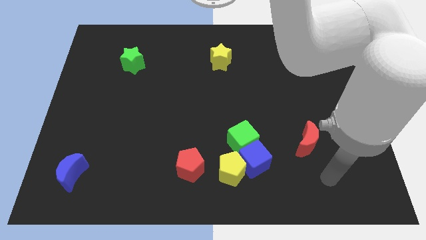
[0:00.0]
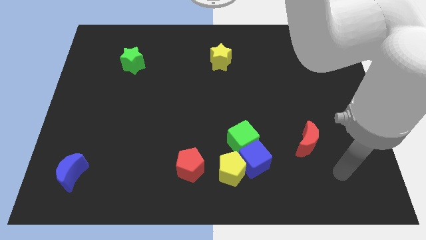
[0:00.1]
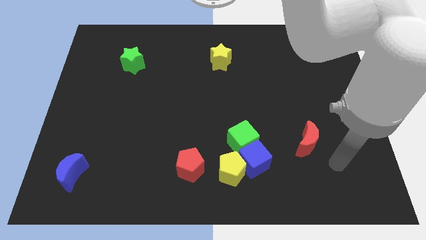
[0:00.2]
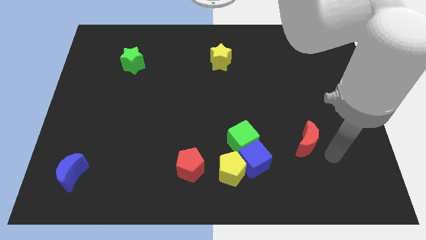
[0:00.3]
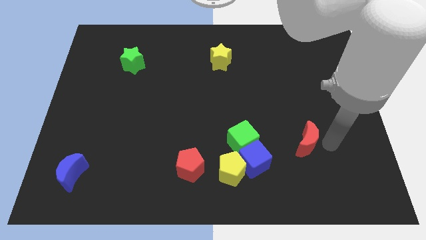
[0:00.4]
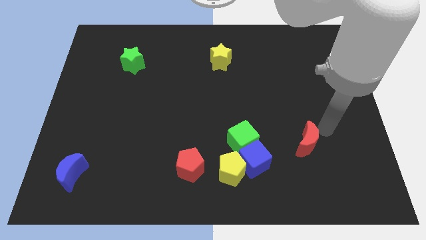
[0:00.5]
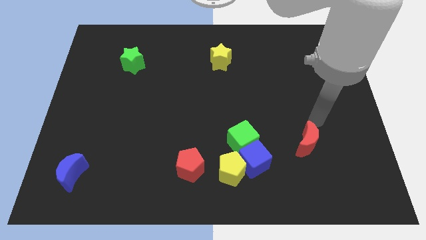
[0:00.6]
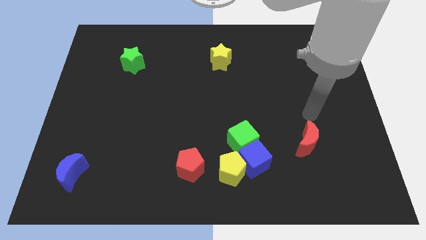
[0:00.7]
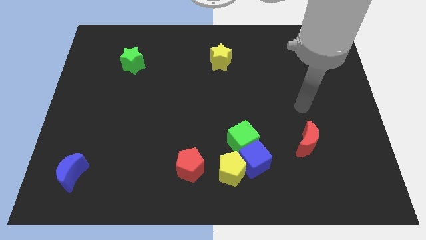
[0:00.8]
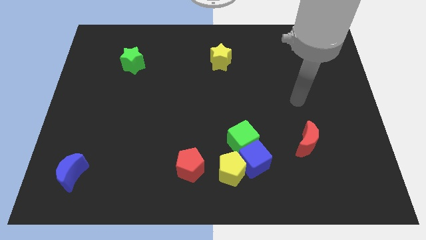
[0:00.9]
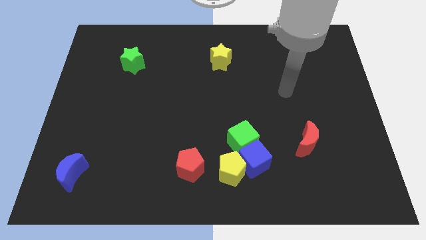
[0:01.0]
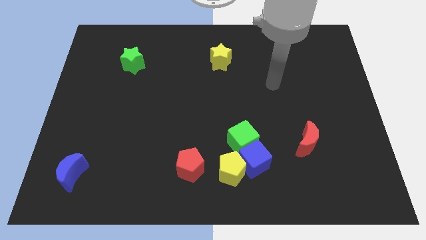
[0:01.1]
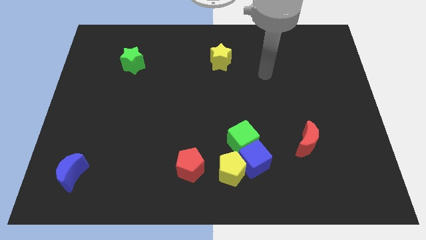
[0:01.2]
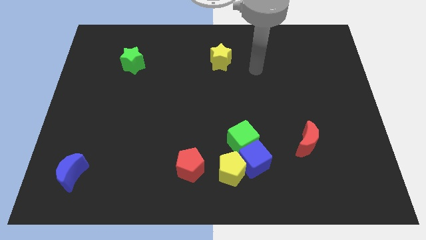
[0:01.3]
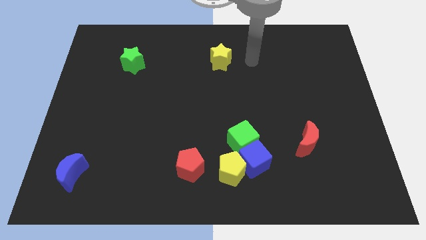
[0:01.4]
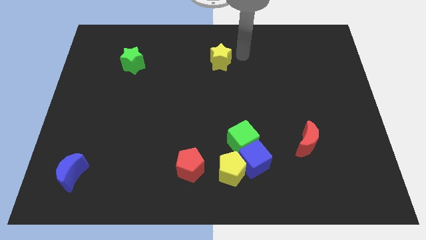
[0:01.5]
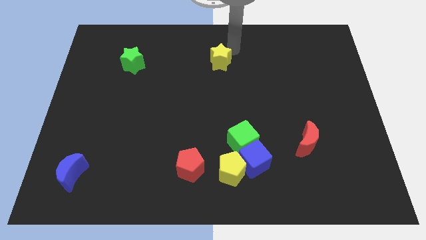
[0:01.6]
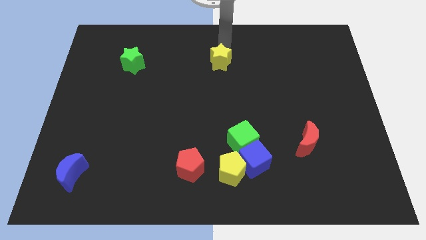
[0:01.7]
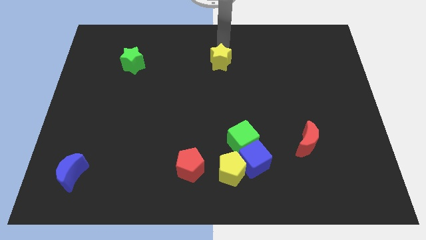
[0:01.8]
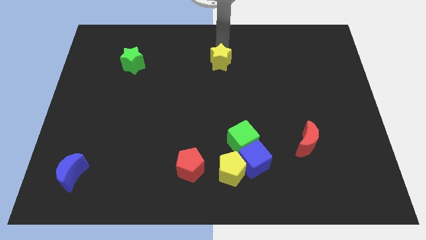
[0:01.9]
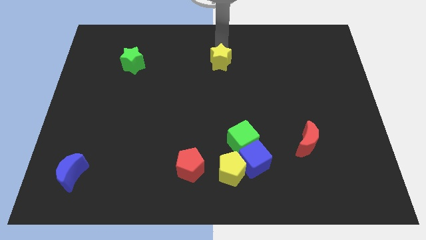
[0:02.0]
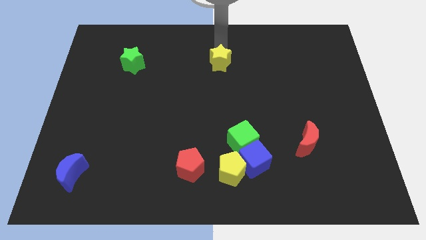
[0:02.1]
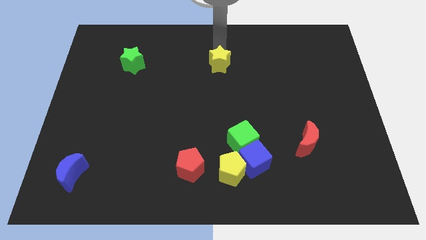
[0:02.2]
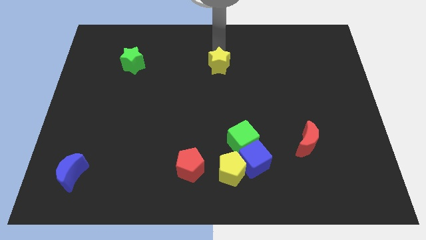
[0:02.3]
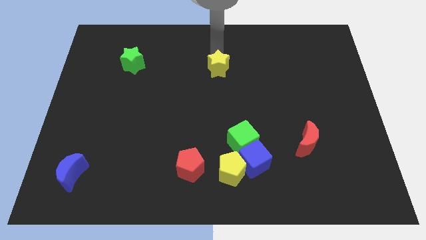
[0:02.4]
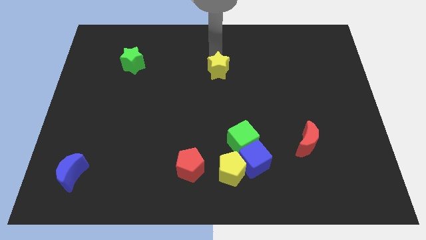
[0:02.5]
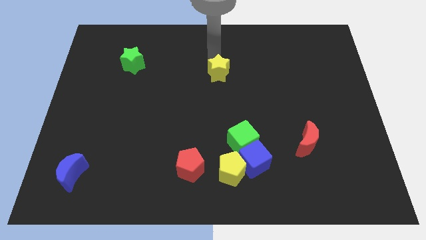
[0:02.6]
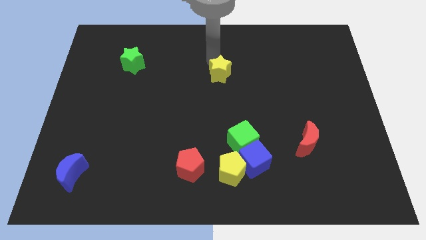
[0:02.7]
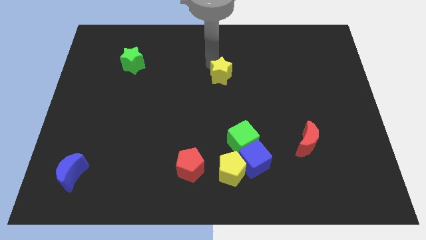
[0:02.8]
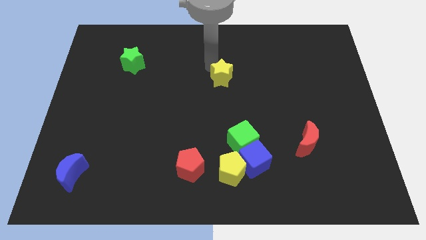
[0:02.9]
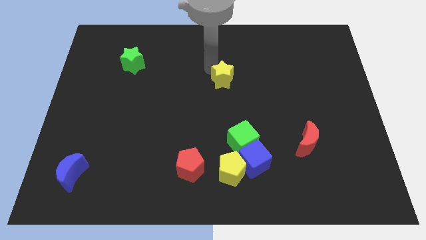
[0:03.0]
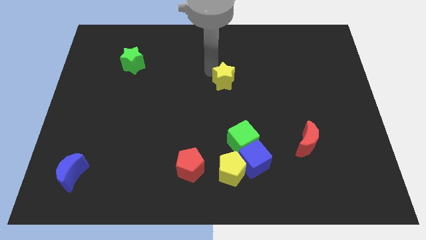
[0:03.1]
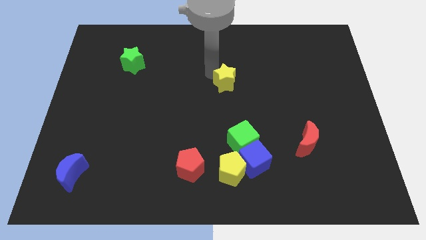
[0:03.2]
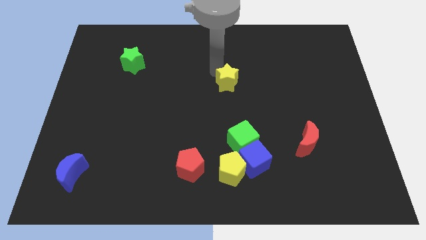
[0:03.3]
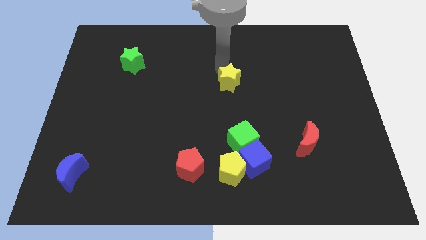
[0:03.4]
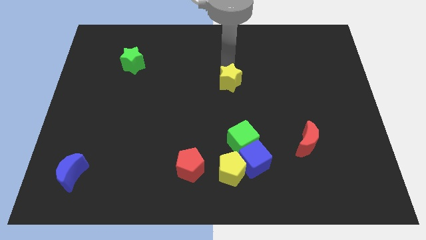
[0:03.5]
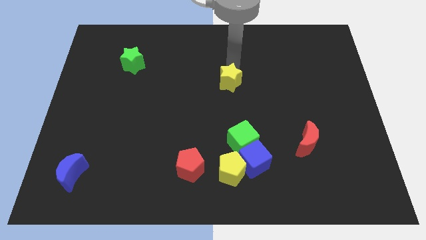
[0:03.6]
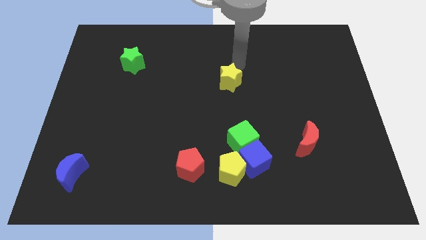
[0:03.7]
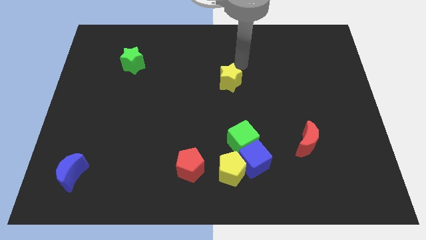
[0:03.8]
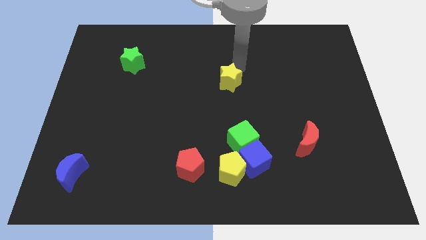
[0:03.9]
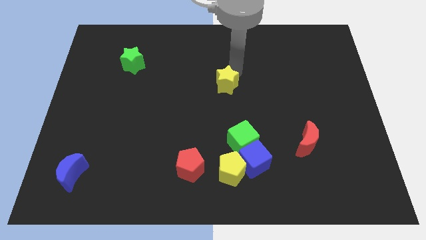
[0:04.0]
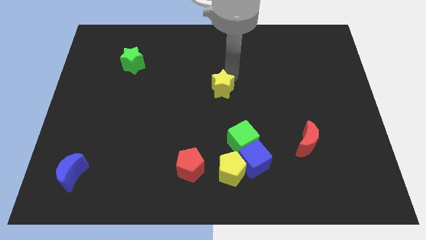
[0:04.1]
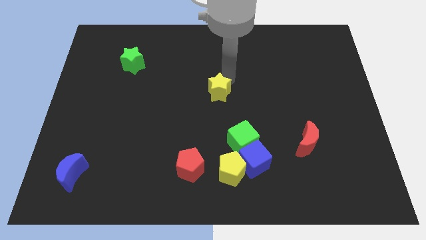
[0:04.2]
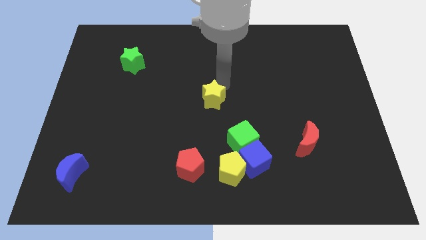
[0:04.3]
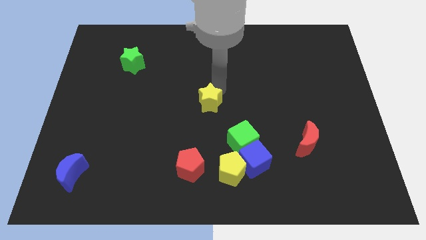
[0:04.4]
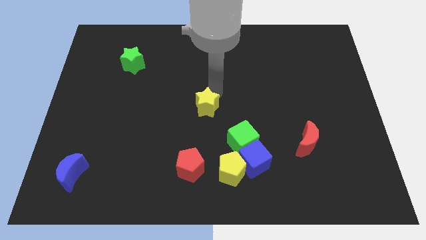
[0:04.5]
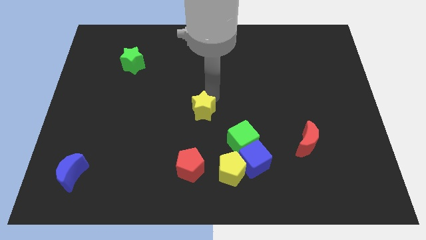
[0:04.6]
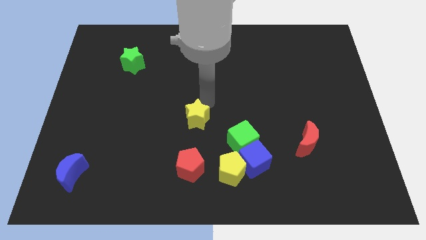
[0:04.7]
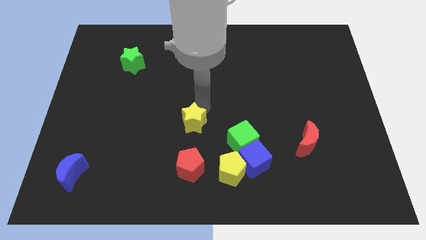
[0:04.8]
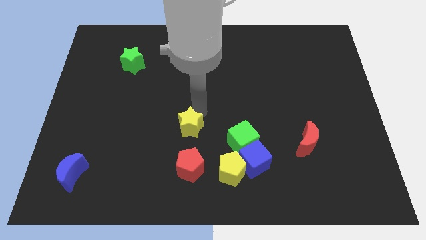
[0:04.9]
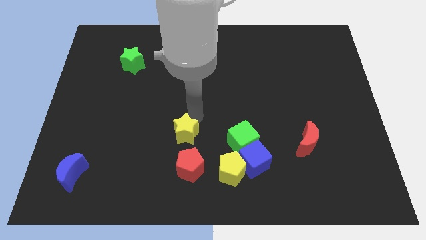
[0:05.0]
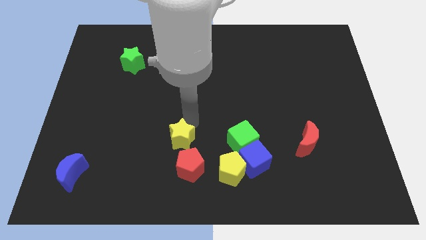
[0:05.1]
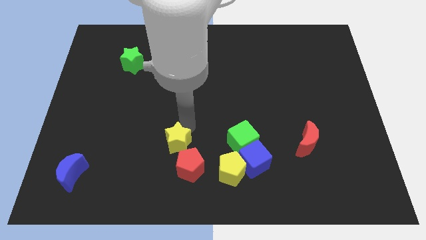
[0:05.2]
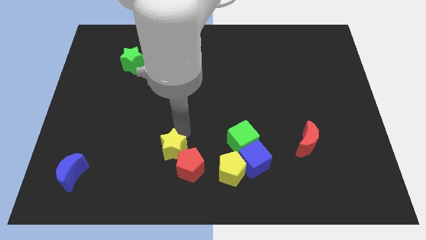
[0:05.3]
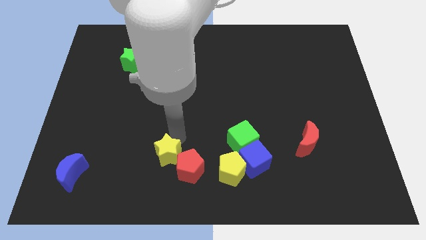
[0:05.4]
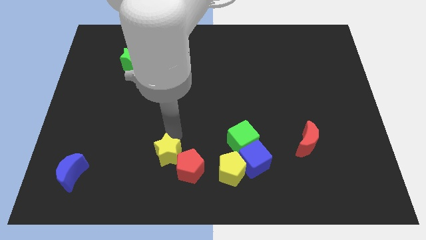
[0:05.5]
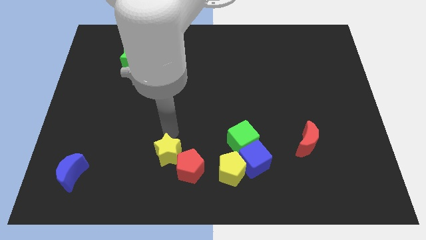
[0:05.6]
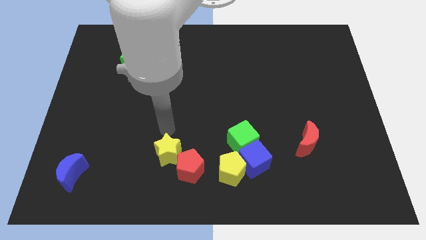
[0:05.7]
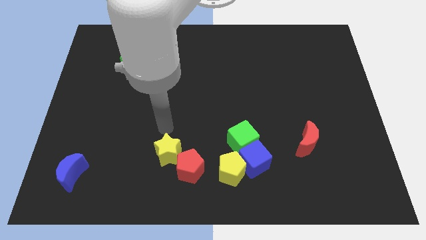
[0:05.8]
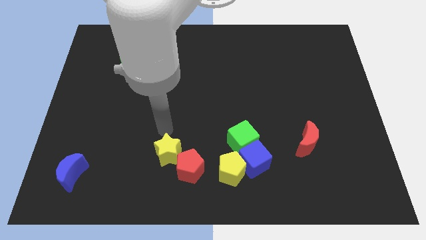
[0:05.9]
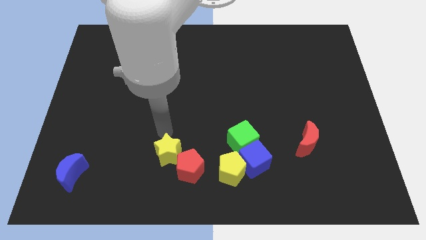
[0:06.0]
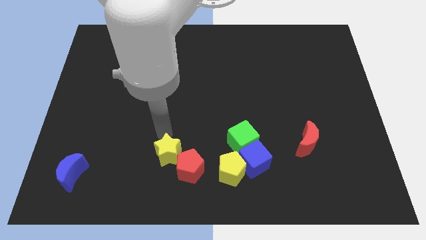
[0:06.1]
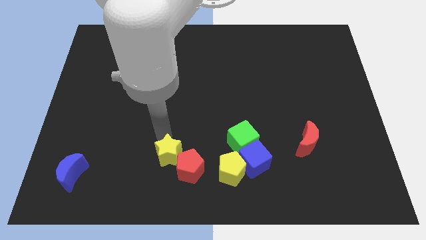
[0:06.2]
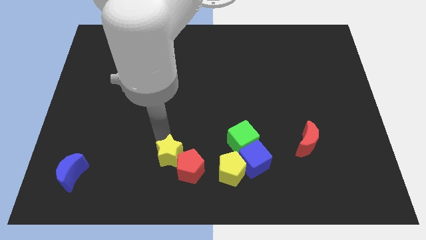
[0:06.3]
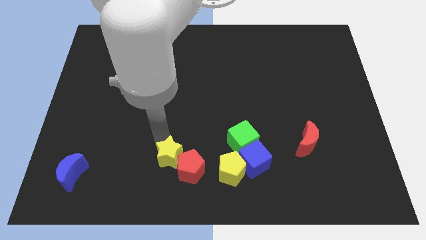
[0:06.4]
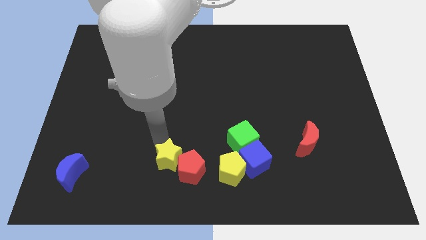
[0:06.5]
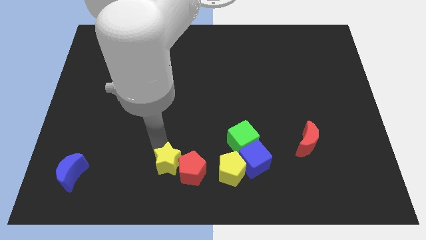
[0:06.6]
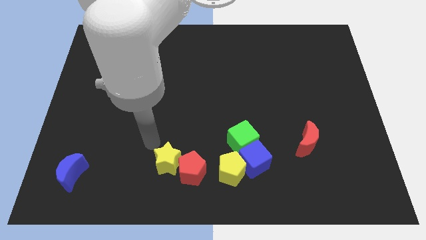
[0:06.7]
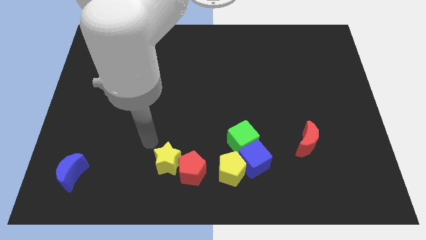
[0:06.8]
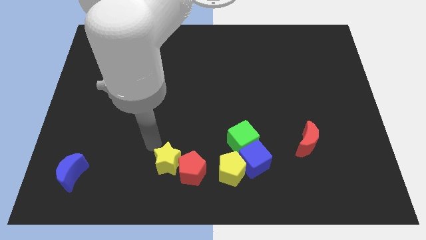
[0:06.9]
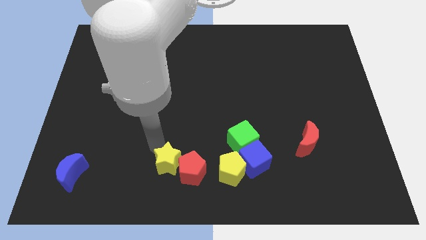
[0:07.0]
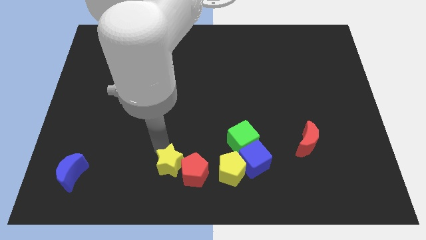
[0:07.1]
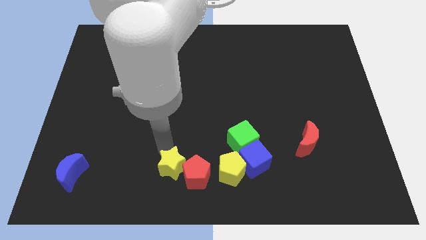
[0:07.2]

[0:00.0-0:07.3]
put the yellow star to the bottom side
